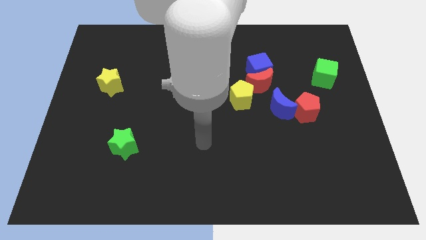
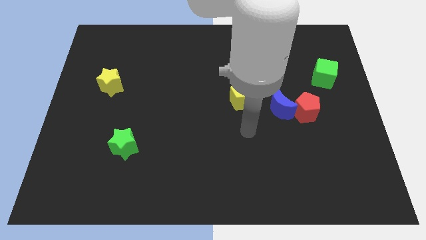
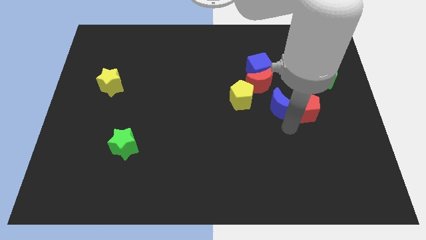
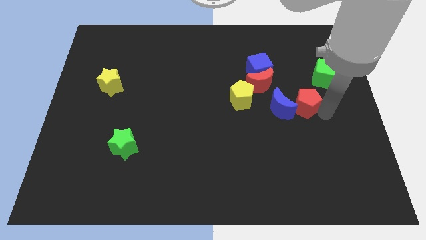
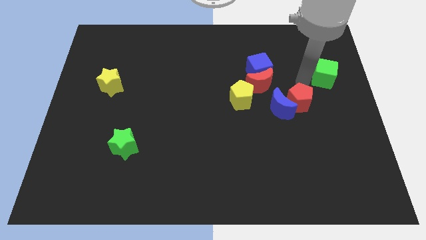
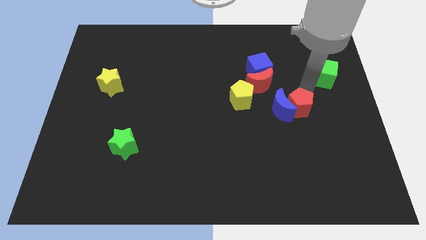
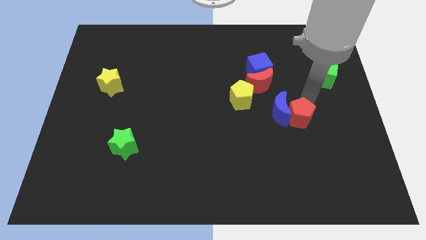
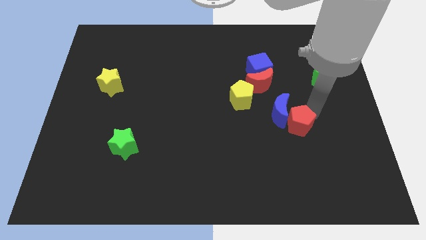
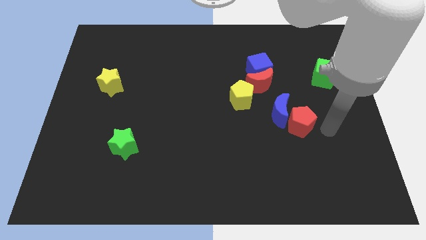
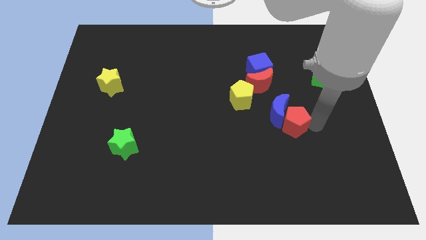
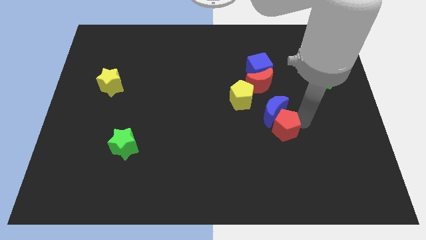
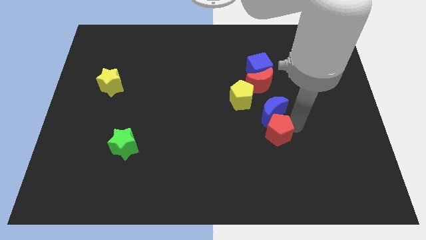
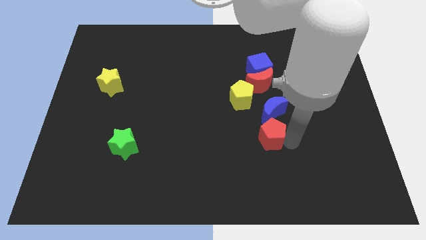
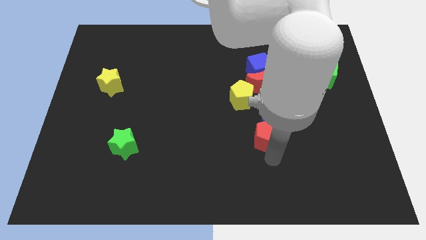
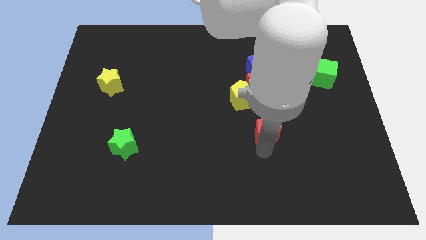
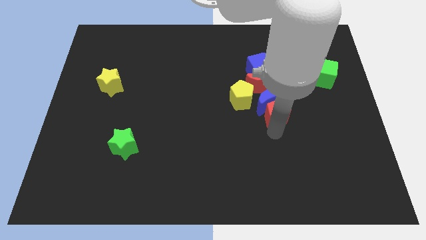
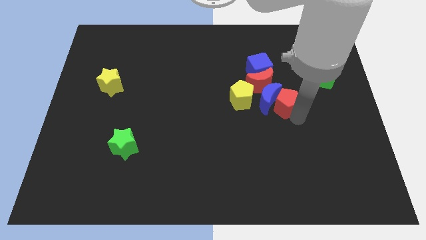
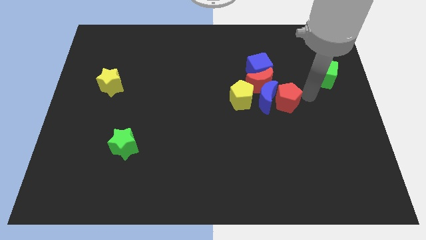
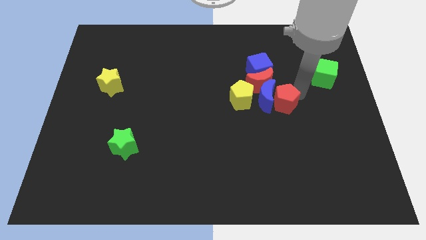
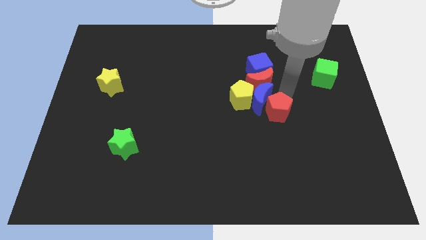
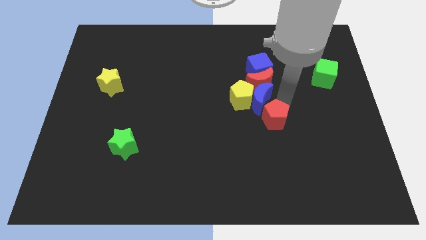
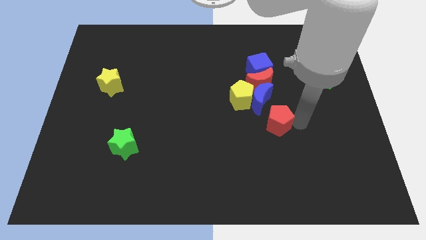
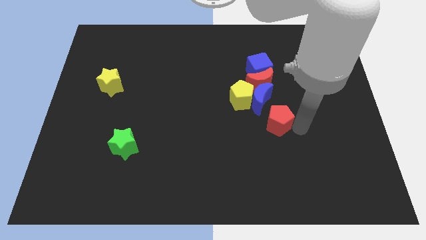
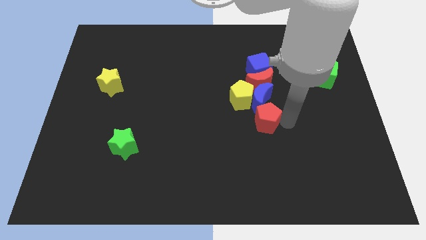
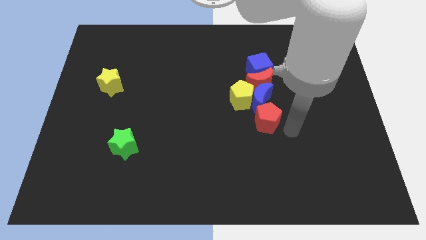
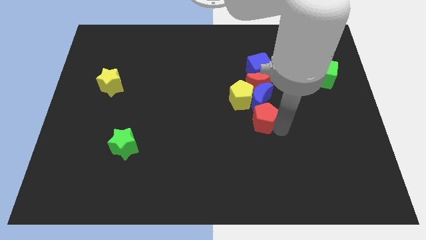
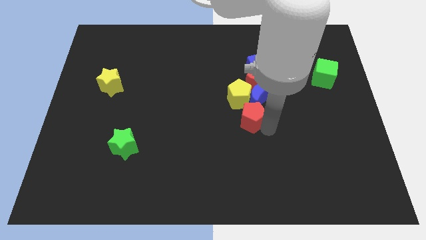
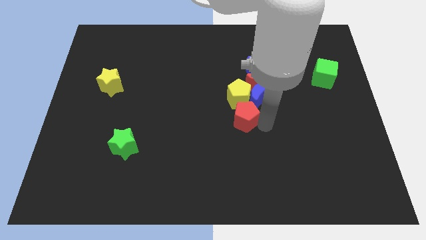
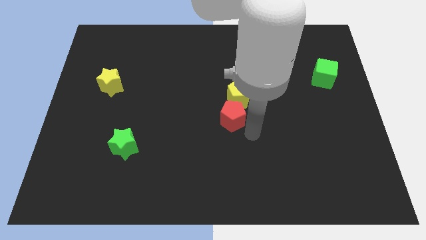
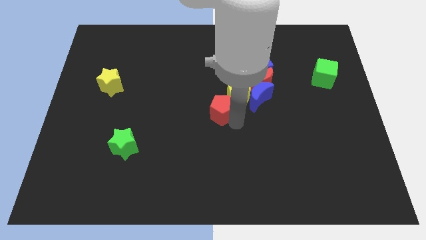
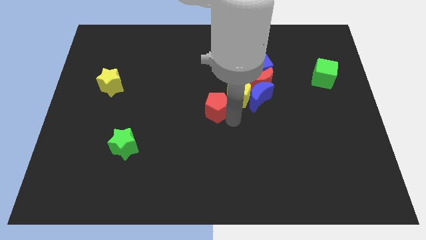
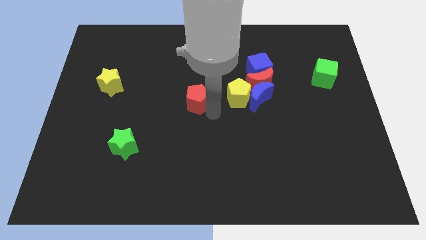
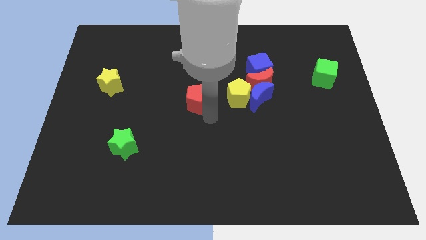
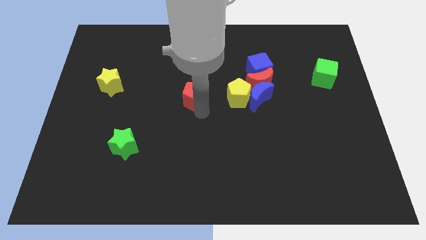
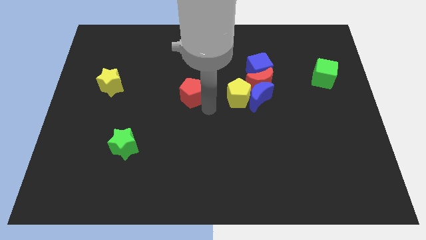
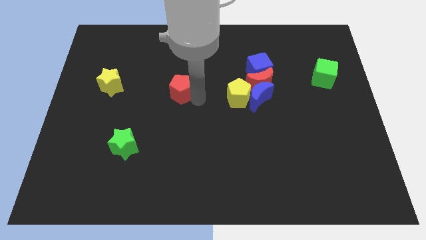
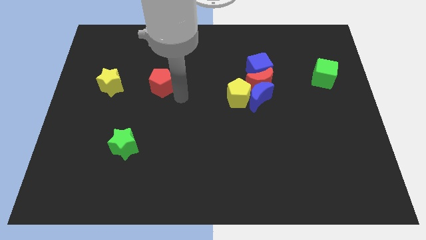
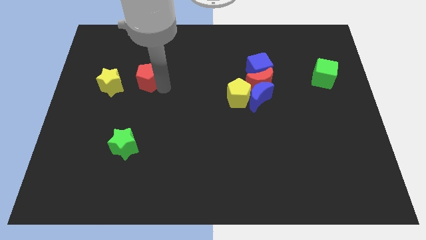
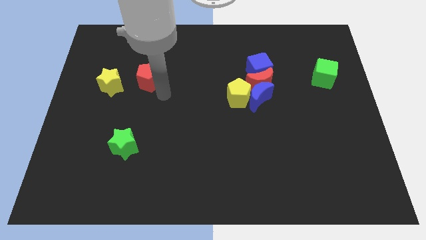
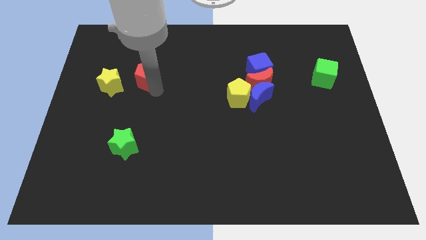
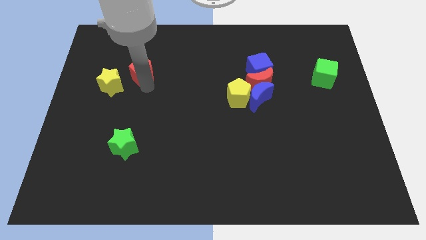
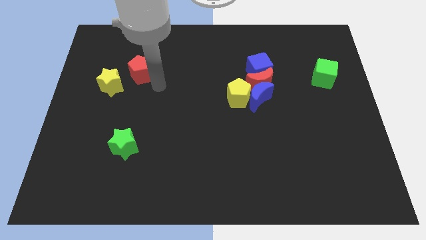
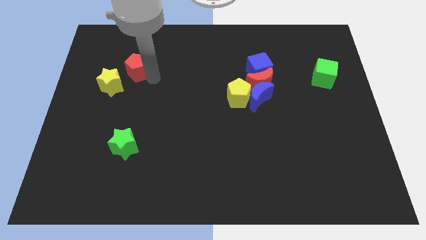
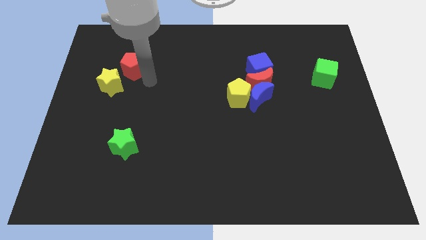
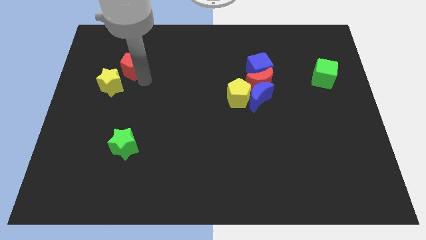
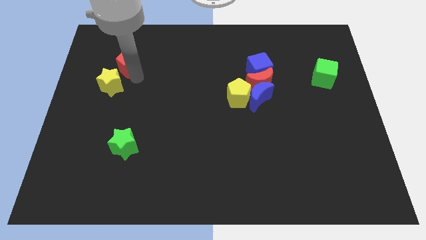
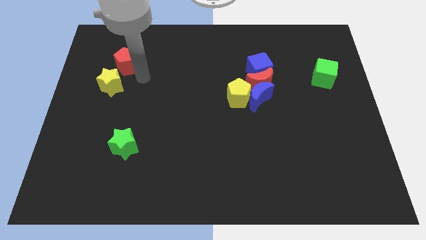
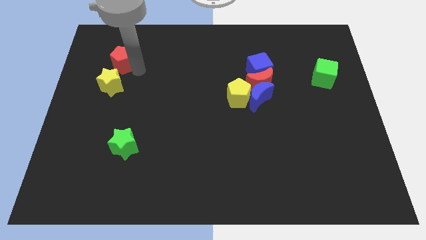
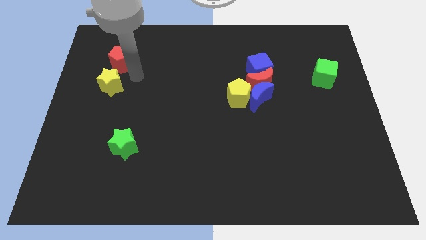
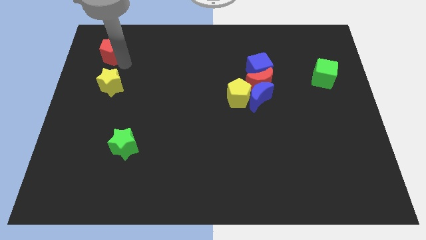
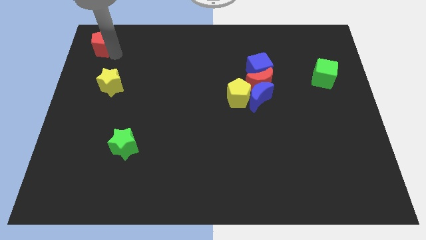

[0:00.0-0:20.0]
move the red pentagon to the upper left corner

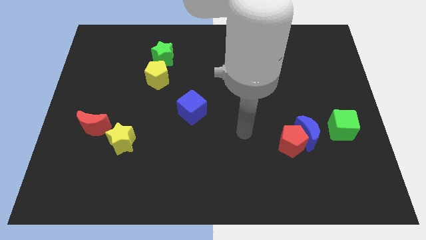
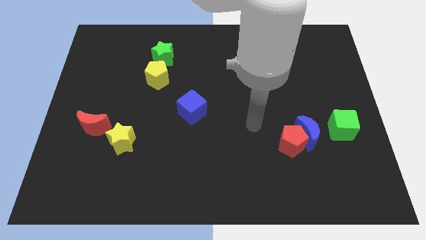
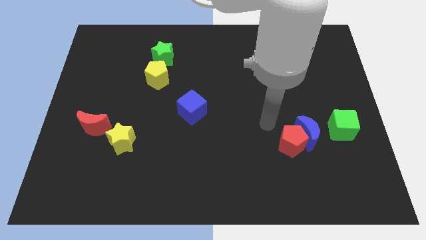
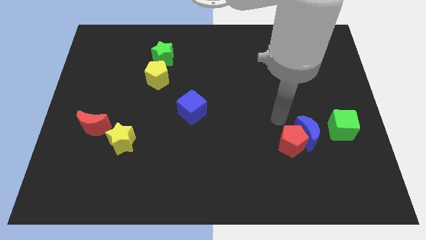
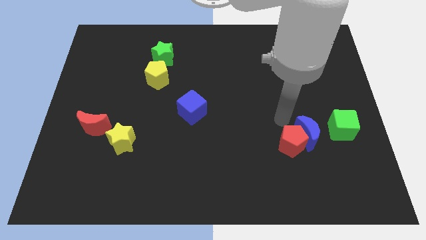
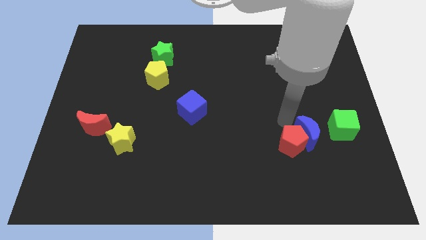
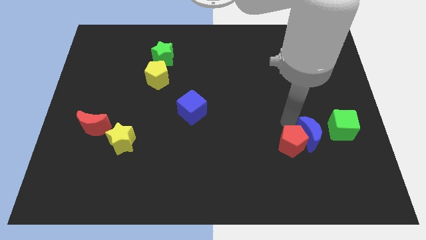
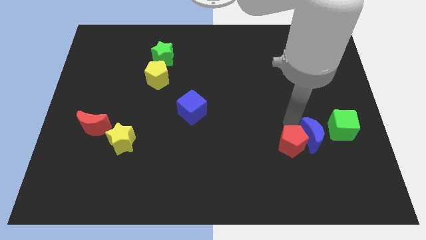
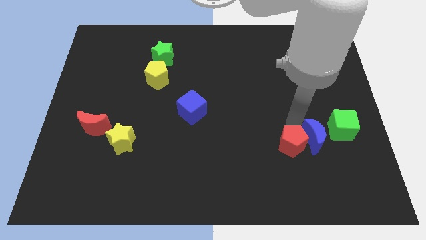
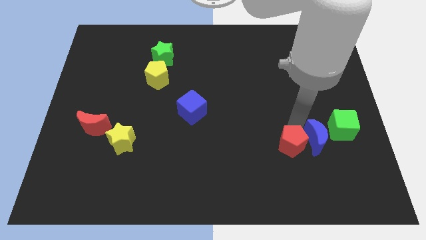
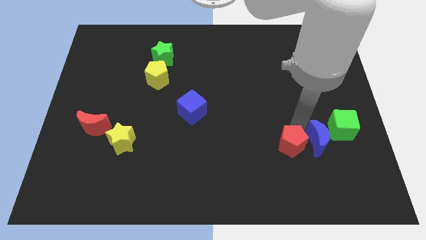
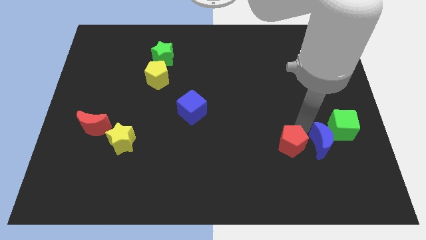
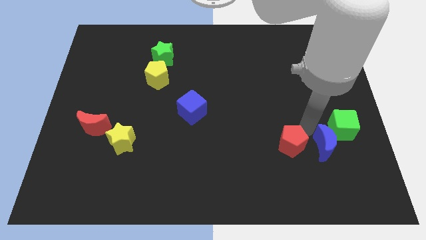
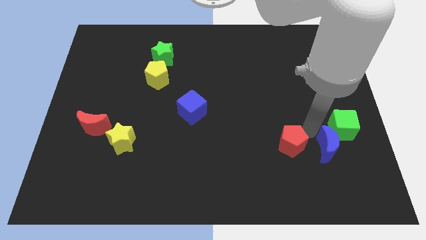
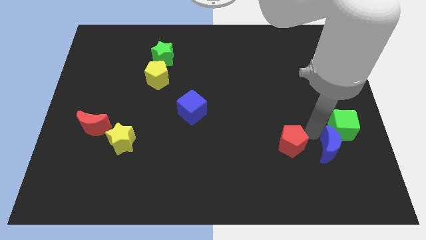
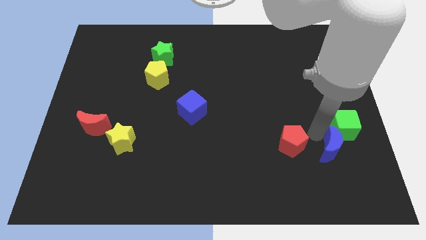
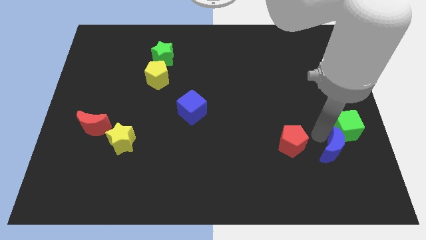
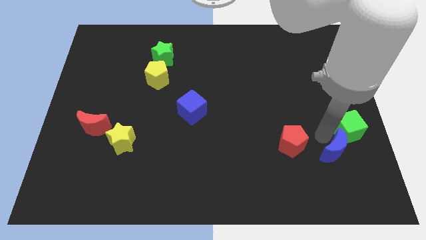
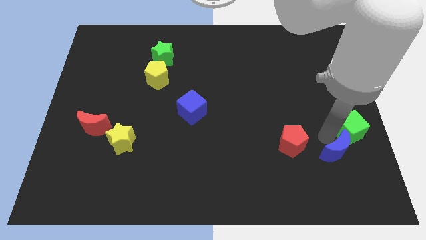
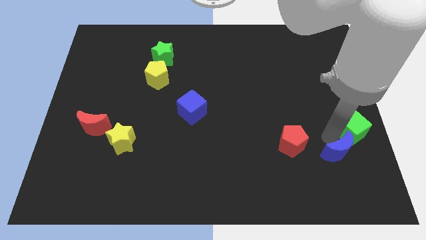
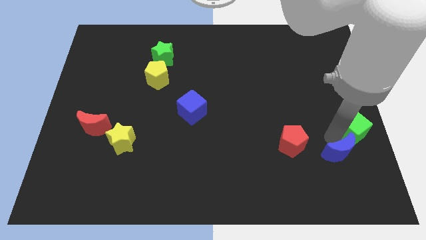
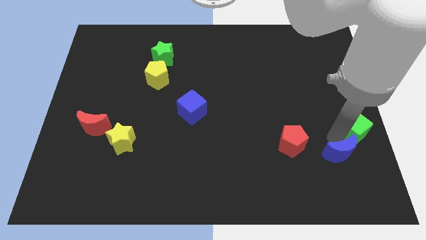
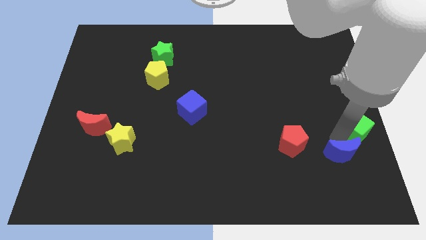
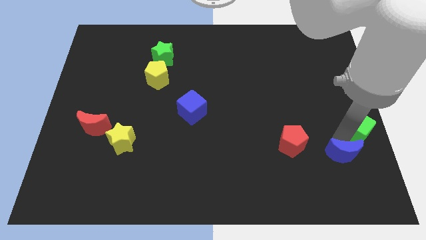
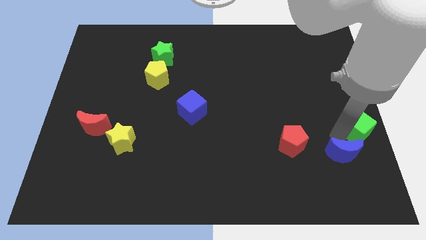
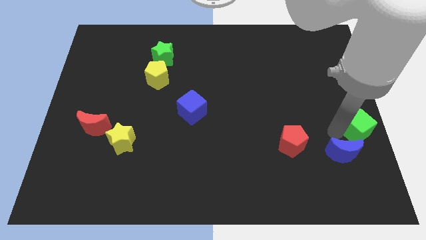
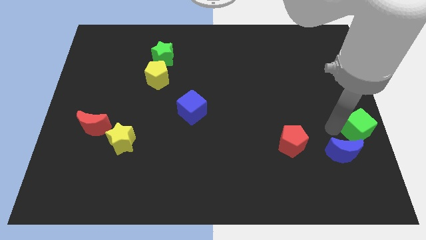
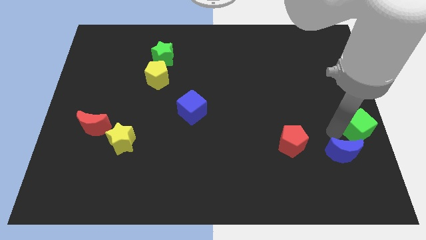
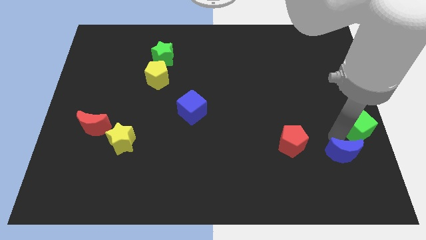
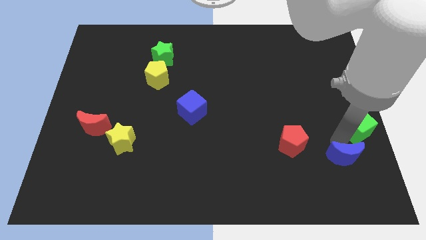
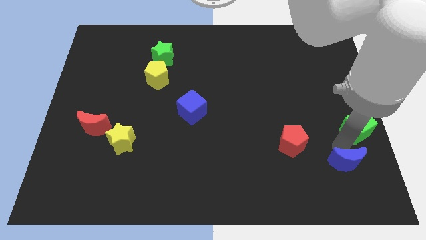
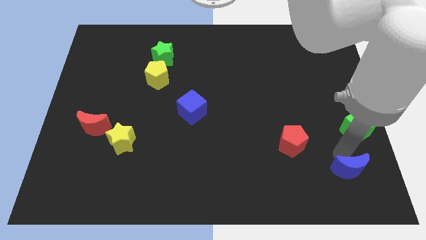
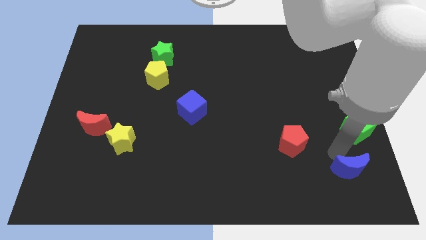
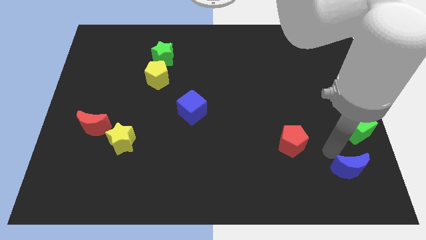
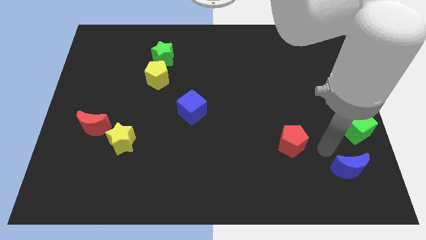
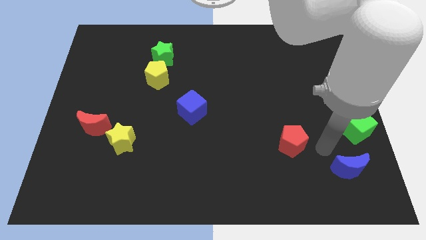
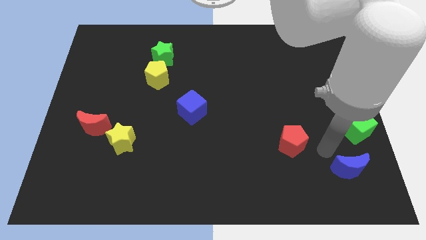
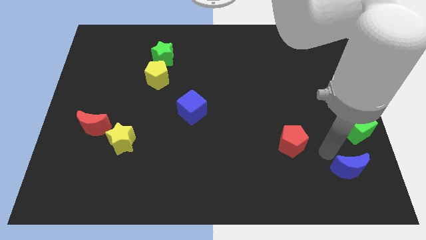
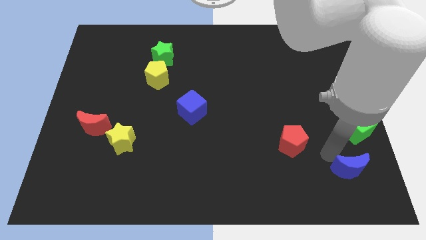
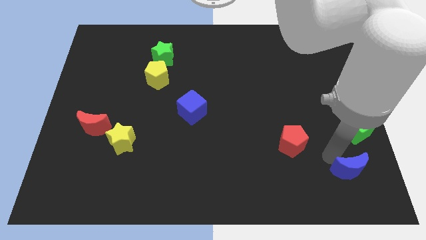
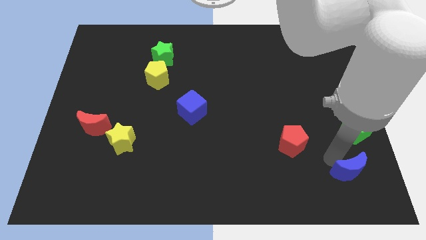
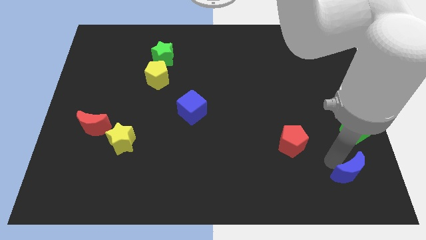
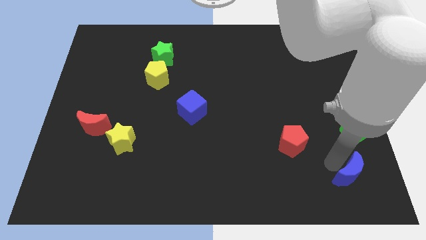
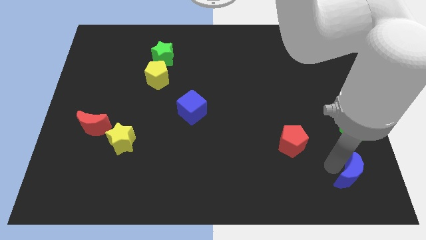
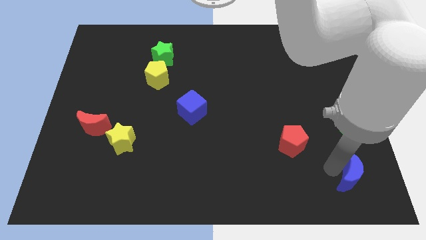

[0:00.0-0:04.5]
push the blue moon to the lower right corner
